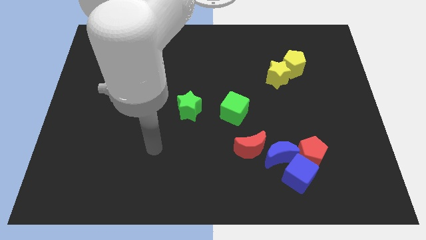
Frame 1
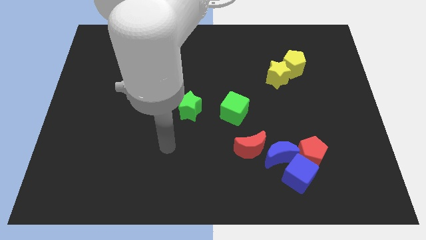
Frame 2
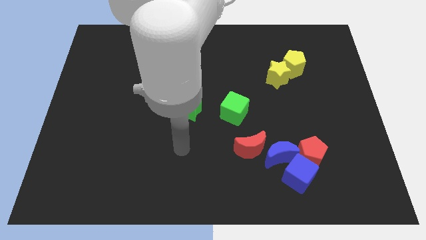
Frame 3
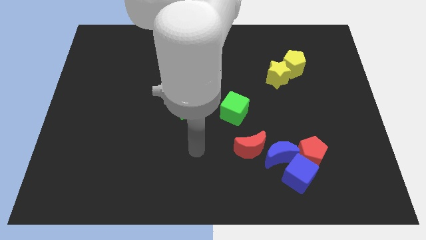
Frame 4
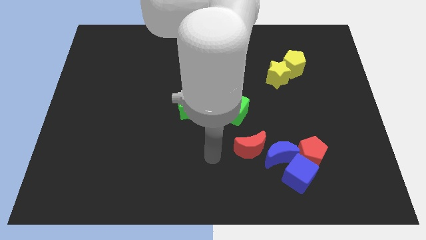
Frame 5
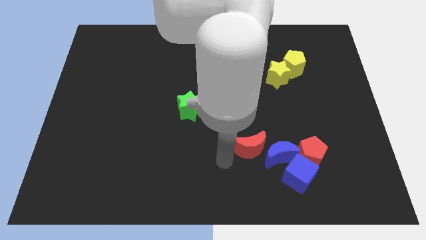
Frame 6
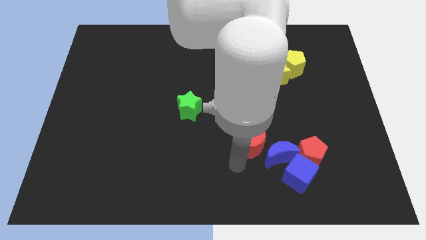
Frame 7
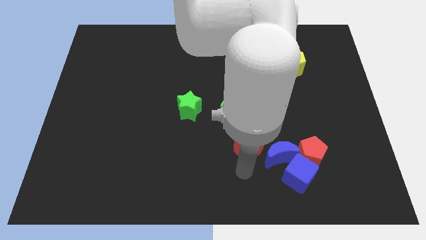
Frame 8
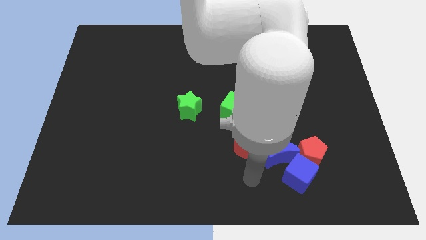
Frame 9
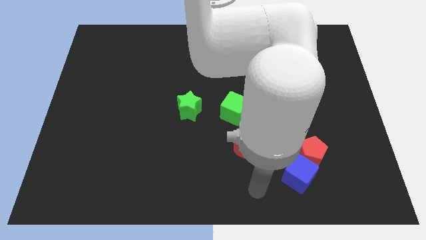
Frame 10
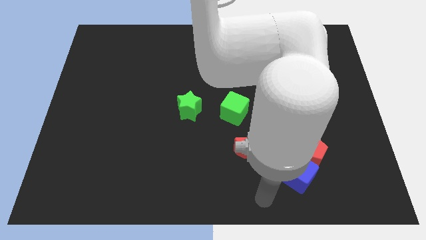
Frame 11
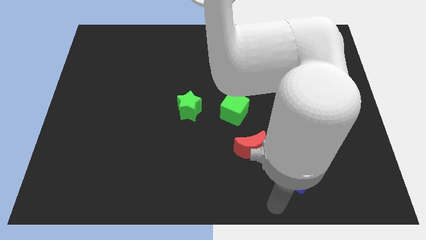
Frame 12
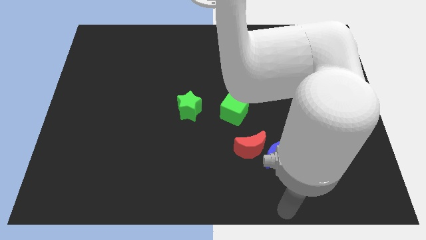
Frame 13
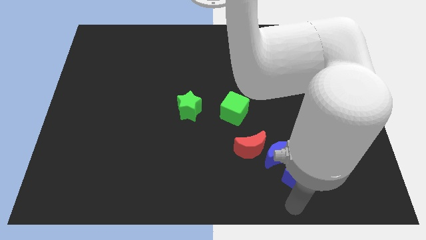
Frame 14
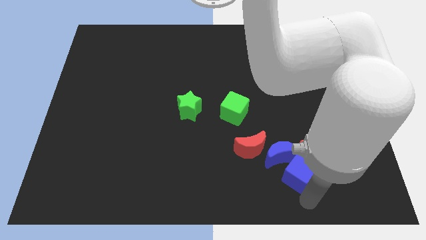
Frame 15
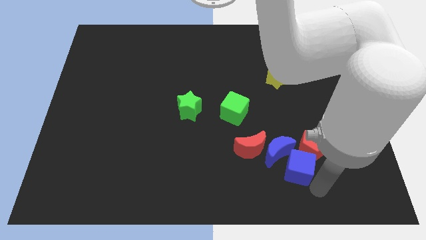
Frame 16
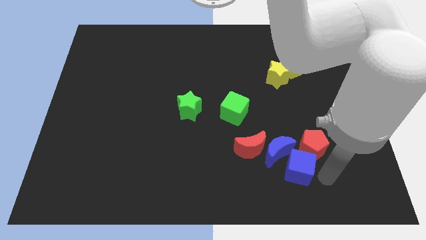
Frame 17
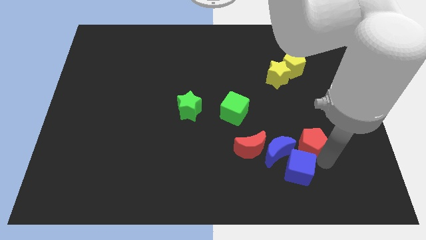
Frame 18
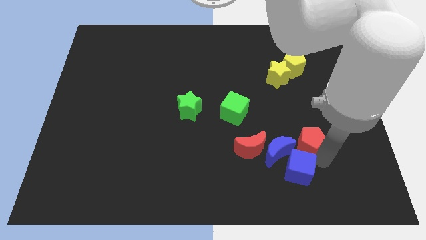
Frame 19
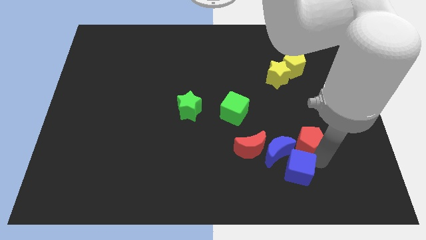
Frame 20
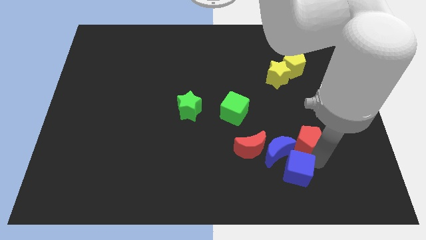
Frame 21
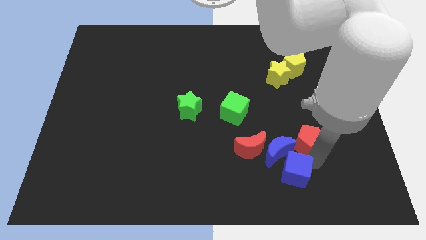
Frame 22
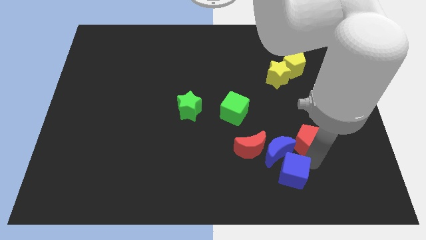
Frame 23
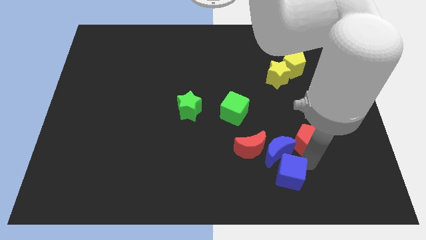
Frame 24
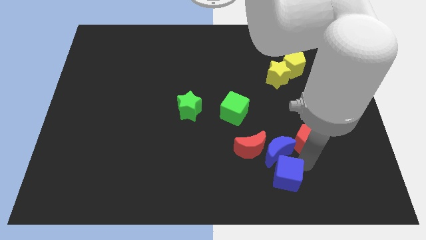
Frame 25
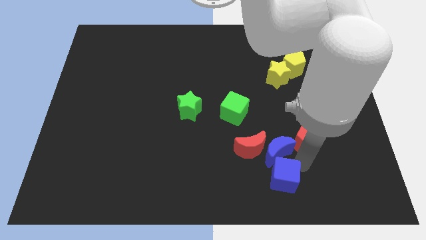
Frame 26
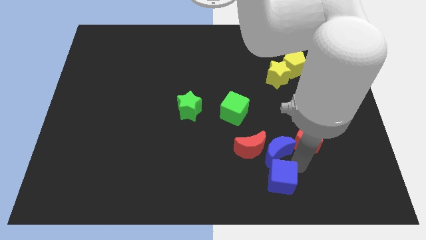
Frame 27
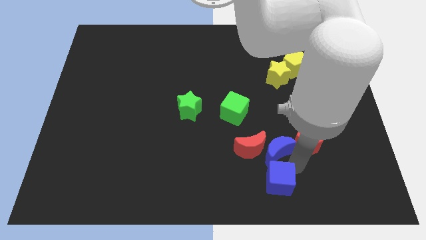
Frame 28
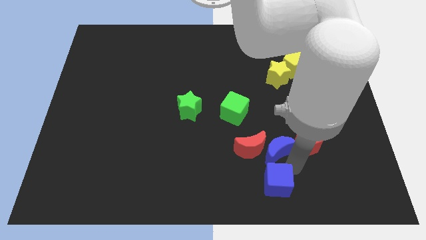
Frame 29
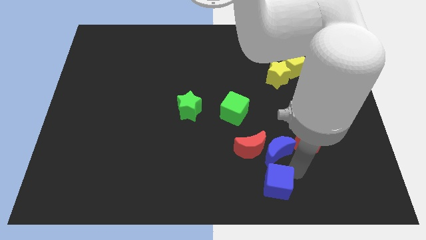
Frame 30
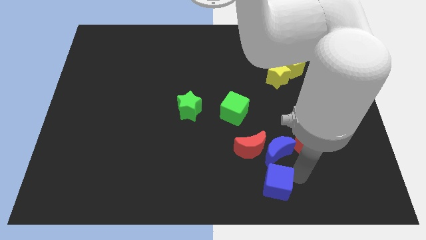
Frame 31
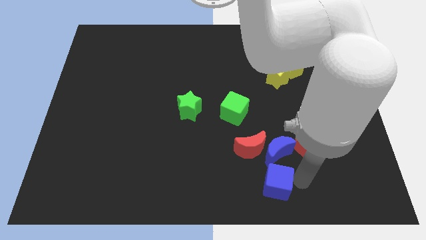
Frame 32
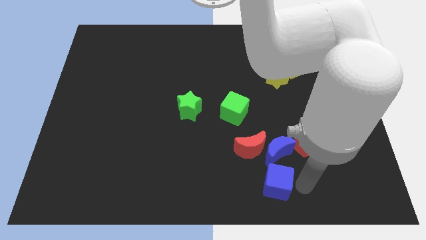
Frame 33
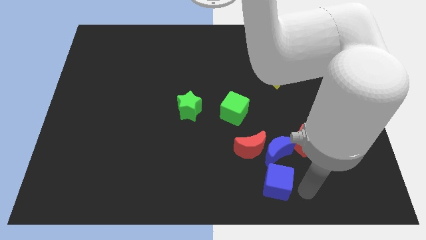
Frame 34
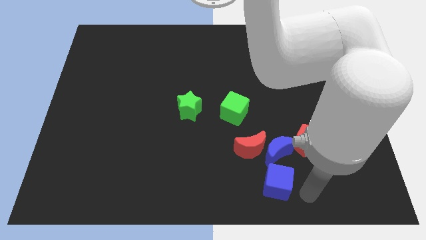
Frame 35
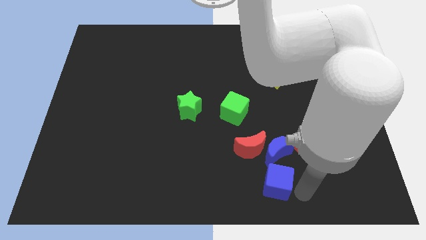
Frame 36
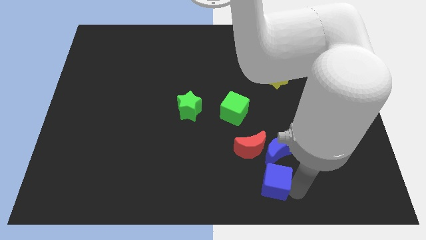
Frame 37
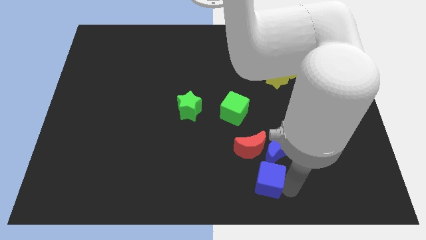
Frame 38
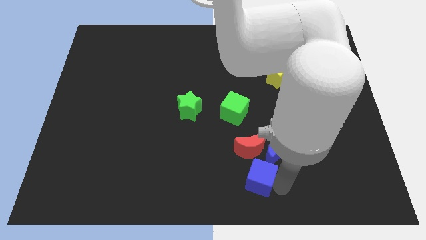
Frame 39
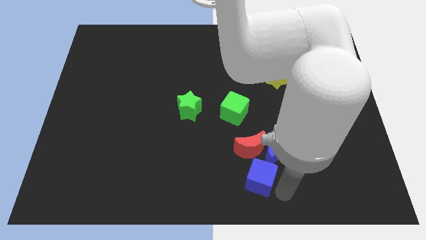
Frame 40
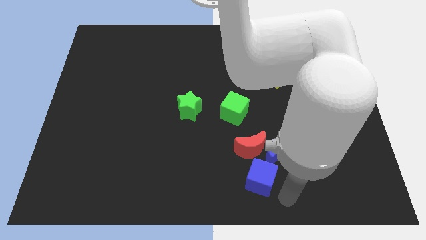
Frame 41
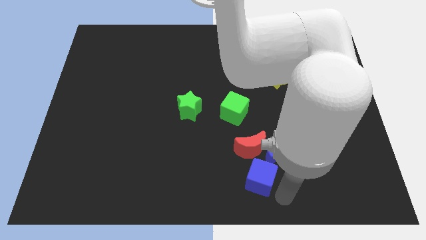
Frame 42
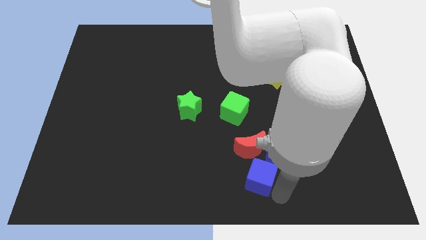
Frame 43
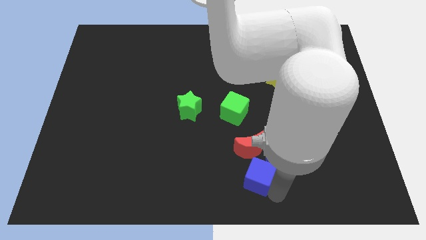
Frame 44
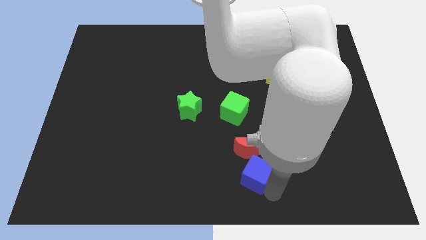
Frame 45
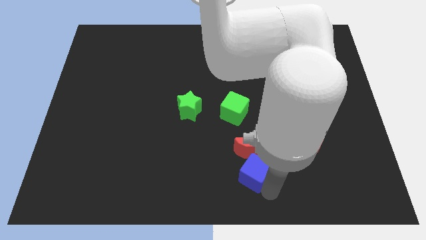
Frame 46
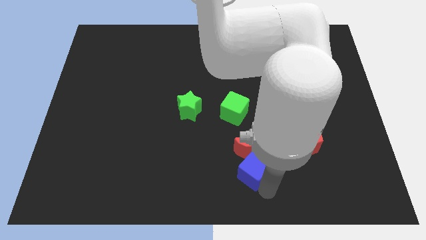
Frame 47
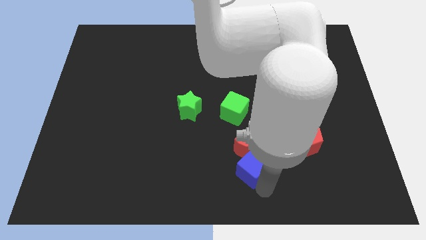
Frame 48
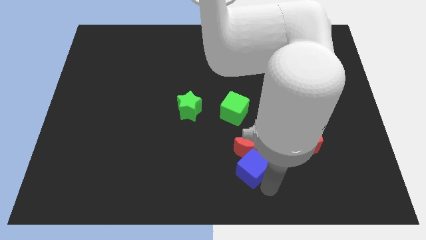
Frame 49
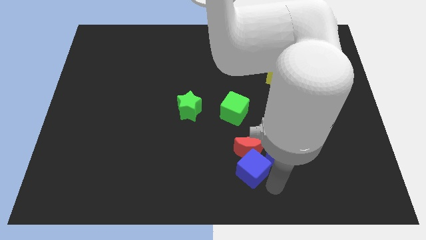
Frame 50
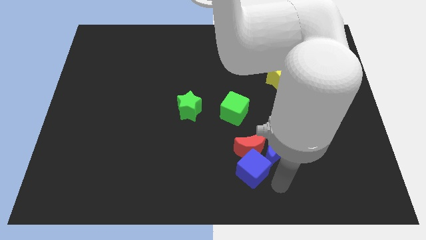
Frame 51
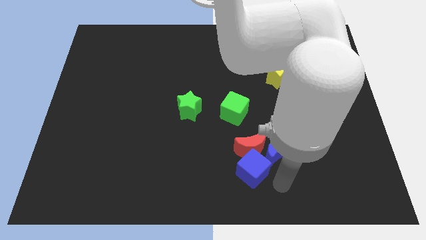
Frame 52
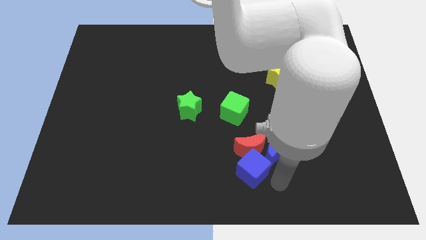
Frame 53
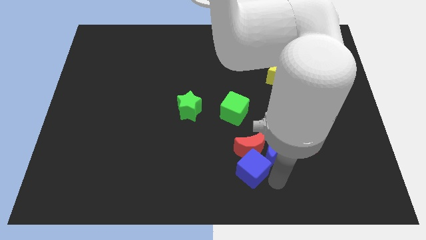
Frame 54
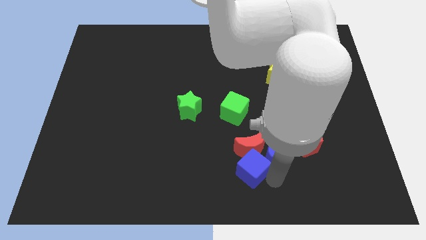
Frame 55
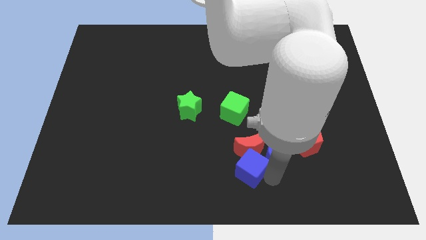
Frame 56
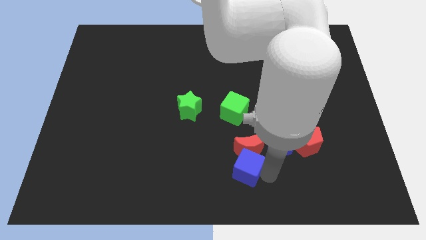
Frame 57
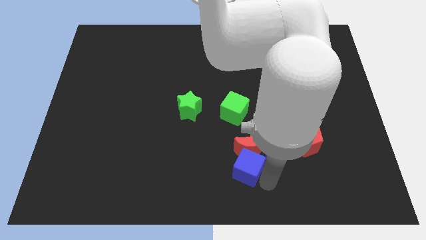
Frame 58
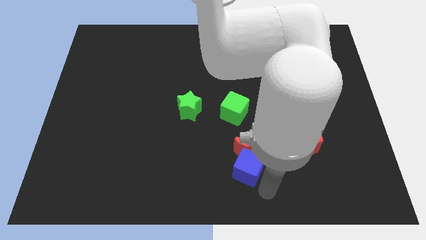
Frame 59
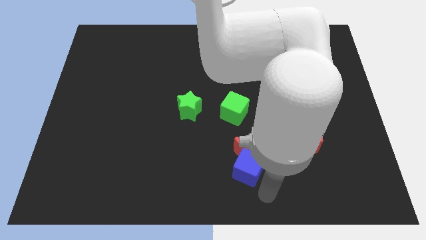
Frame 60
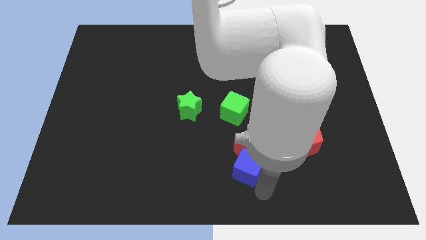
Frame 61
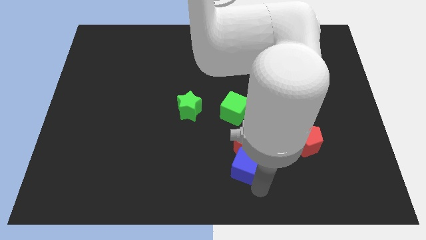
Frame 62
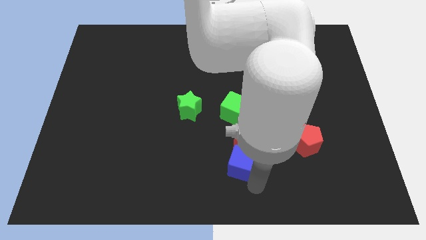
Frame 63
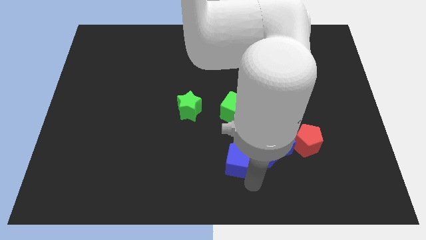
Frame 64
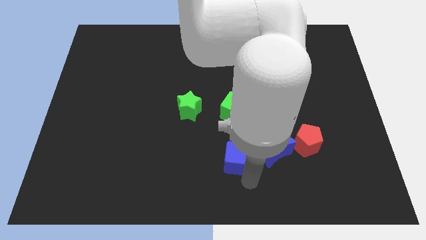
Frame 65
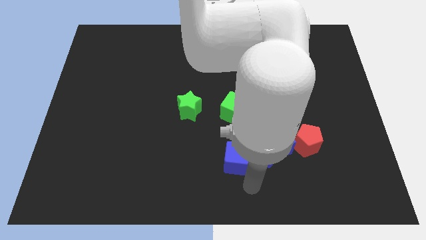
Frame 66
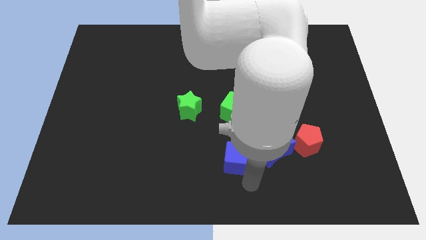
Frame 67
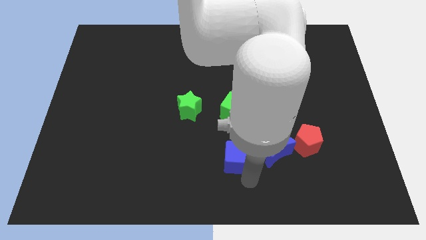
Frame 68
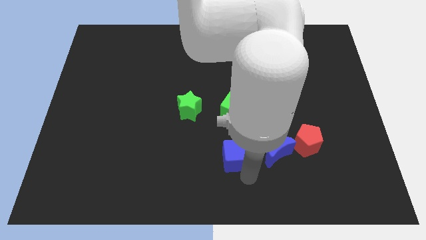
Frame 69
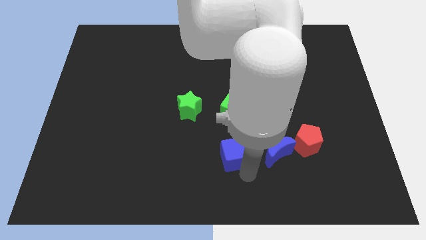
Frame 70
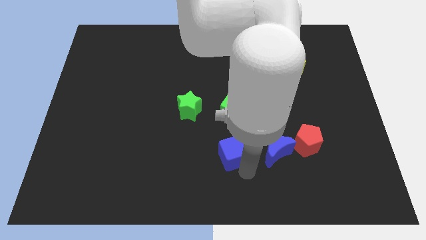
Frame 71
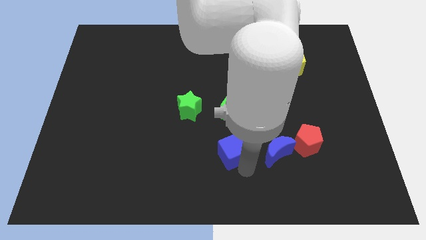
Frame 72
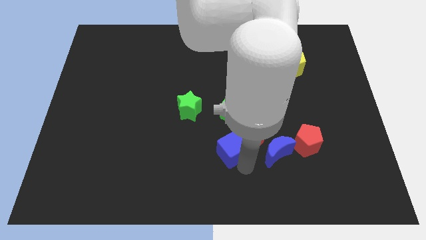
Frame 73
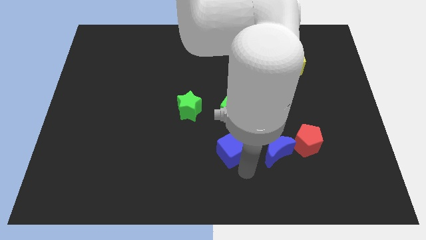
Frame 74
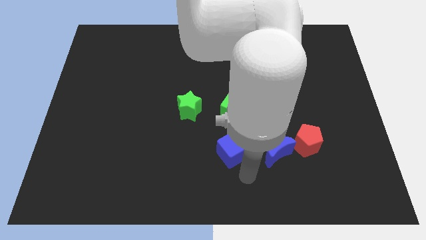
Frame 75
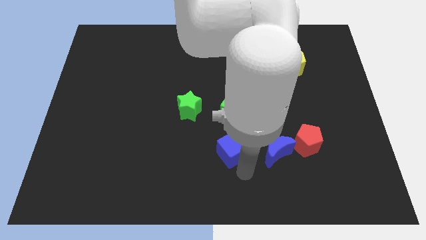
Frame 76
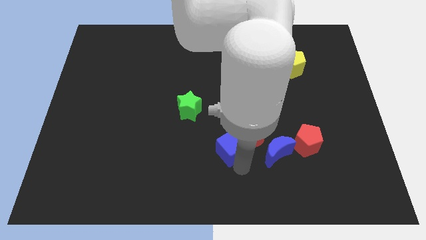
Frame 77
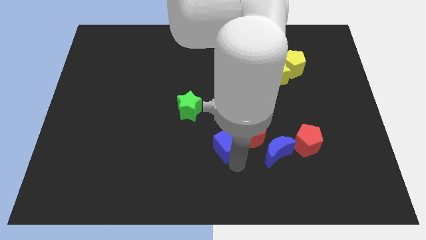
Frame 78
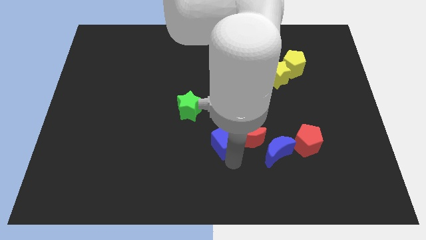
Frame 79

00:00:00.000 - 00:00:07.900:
push the blue cube to the center
